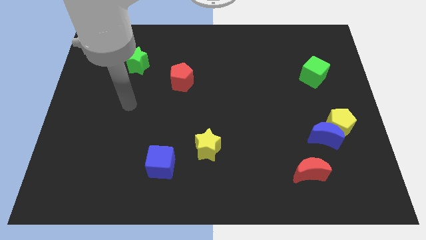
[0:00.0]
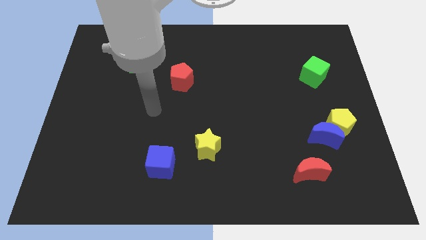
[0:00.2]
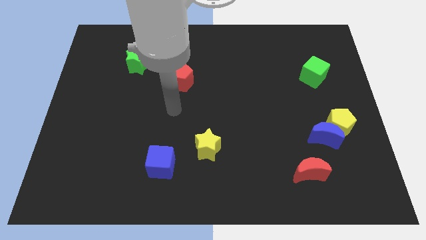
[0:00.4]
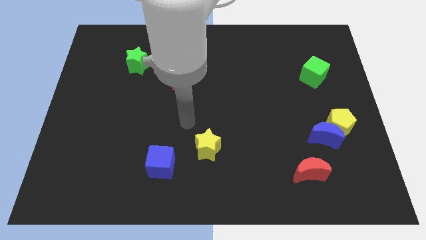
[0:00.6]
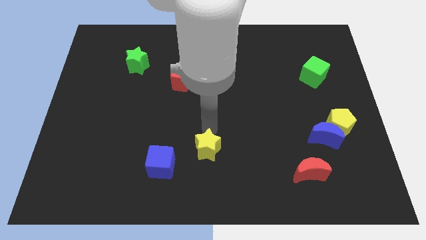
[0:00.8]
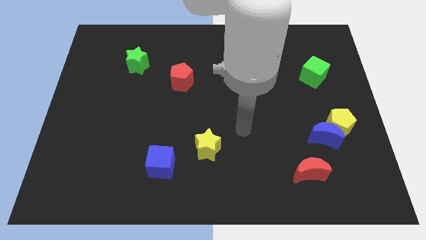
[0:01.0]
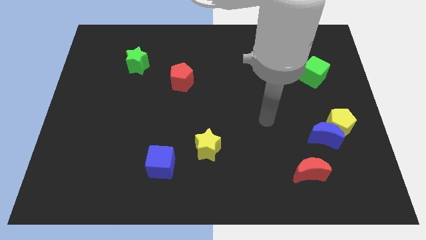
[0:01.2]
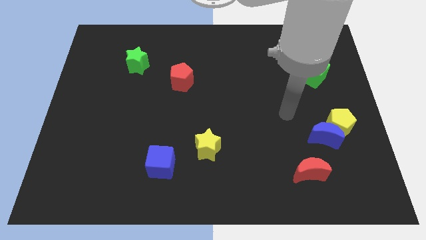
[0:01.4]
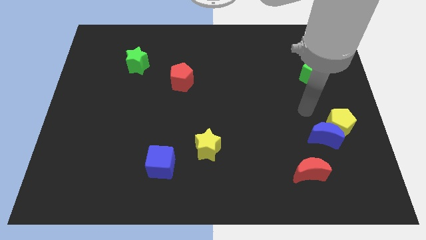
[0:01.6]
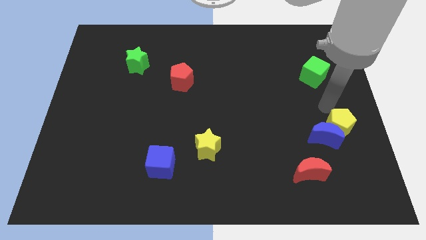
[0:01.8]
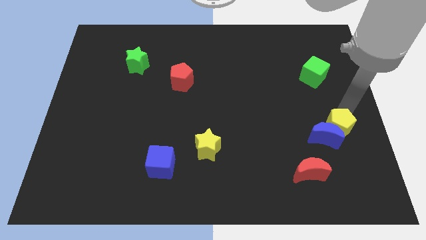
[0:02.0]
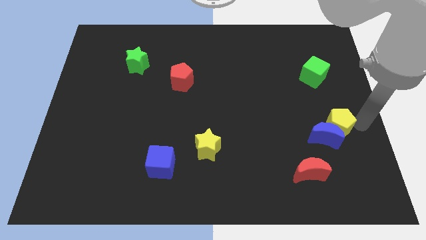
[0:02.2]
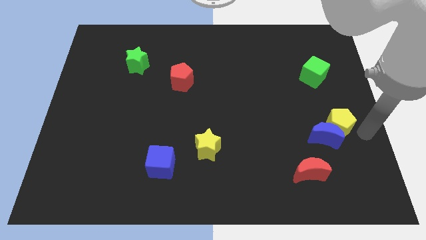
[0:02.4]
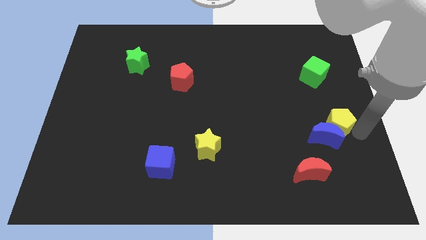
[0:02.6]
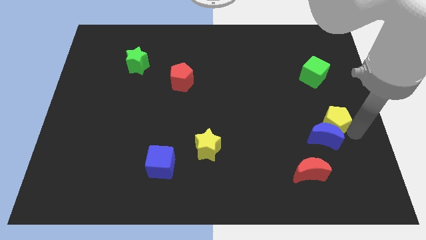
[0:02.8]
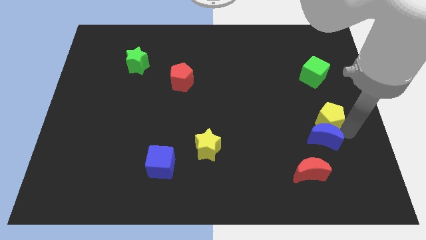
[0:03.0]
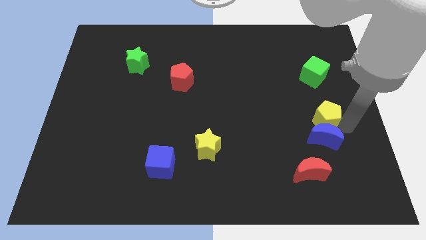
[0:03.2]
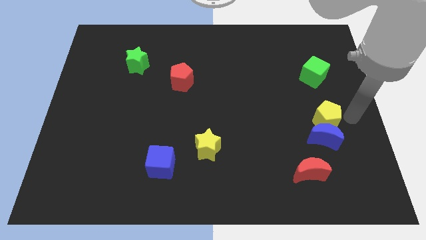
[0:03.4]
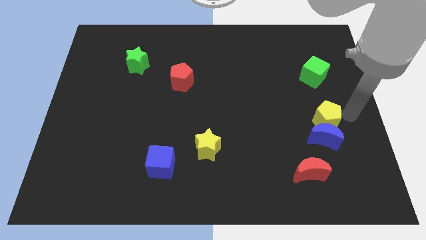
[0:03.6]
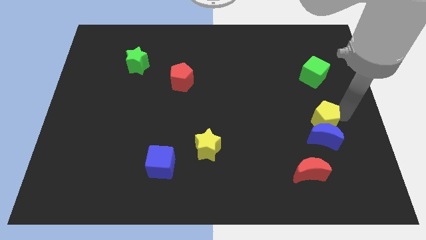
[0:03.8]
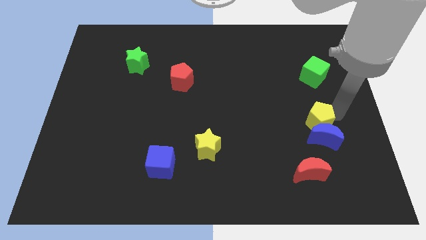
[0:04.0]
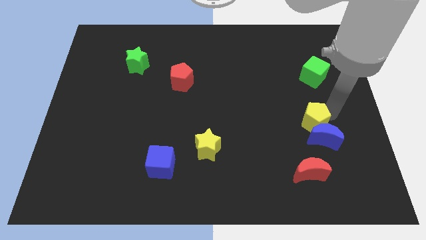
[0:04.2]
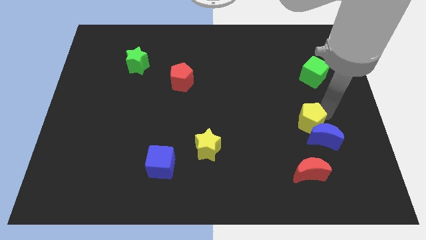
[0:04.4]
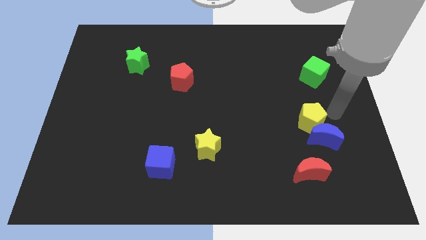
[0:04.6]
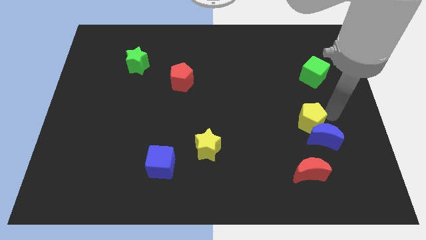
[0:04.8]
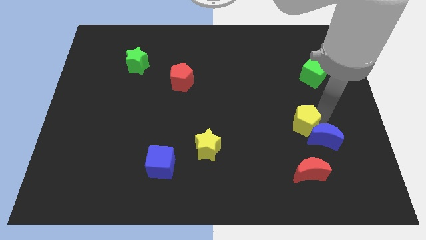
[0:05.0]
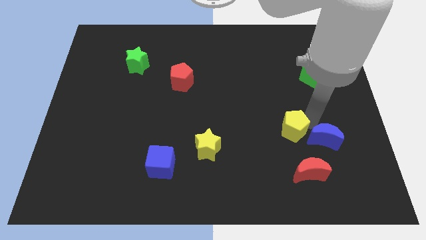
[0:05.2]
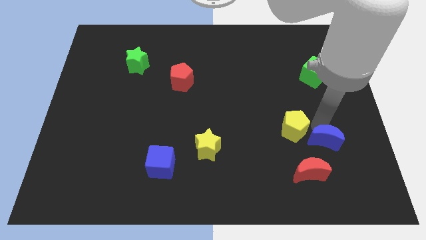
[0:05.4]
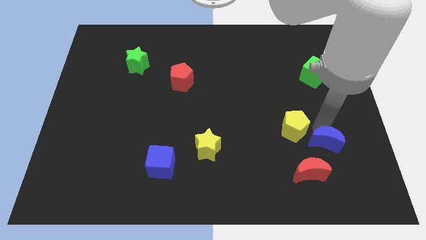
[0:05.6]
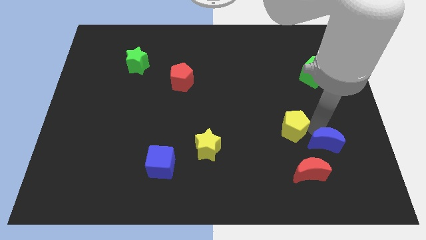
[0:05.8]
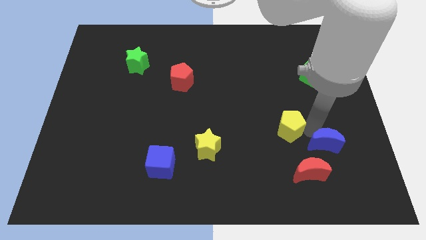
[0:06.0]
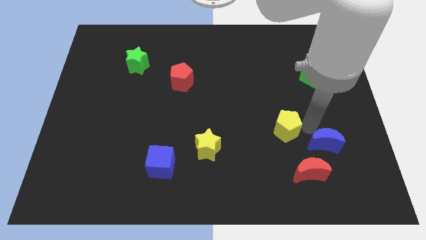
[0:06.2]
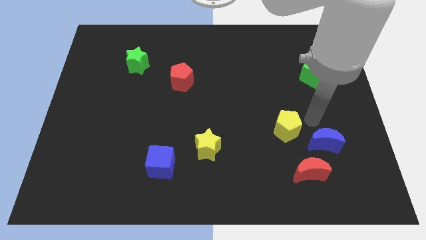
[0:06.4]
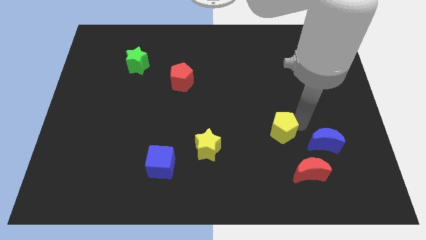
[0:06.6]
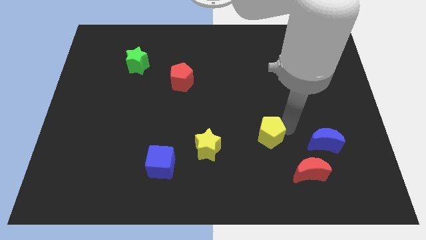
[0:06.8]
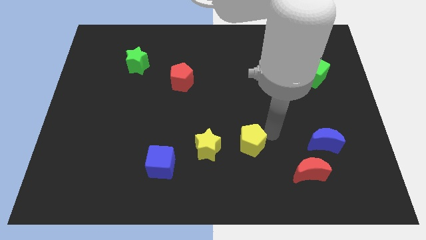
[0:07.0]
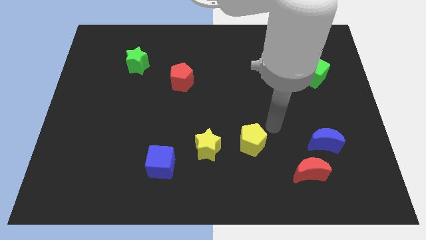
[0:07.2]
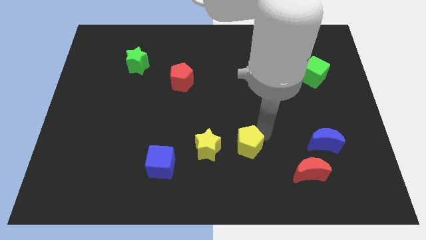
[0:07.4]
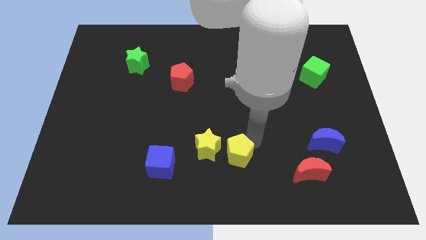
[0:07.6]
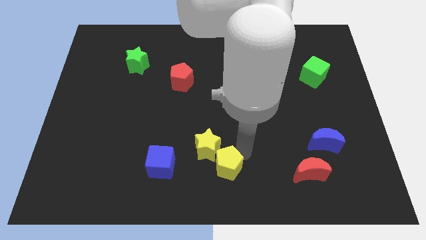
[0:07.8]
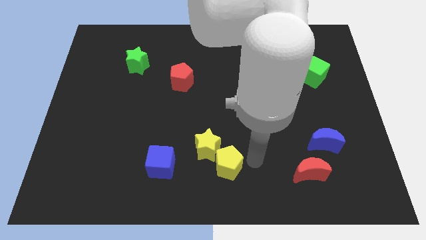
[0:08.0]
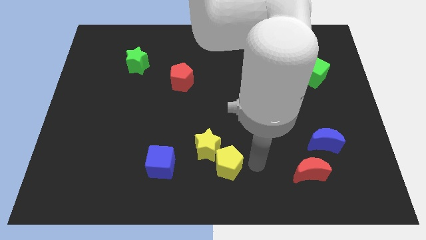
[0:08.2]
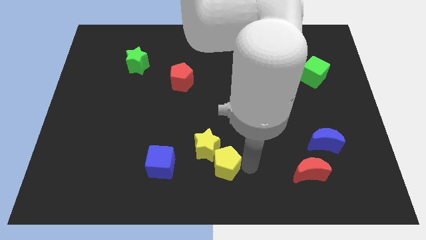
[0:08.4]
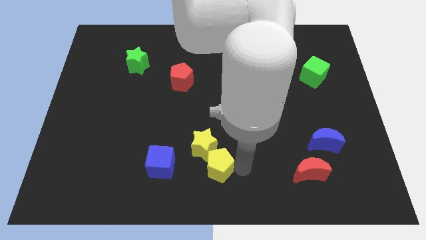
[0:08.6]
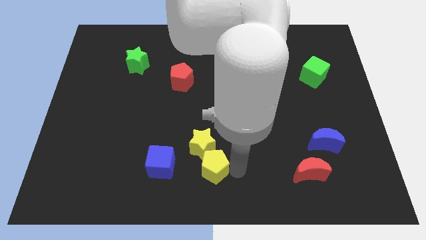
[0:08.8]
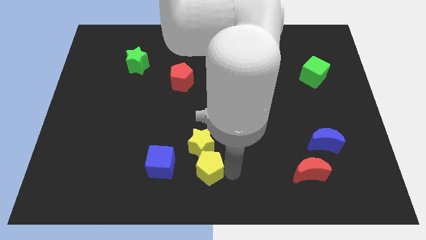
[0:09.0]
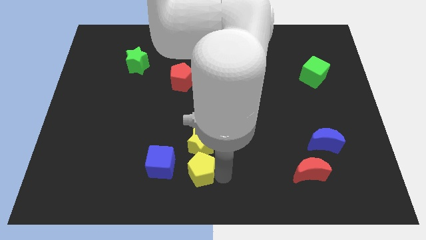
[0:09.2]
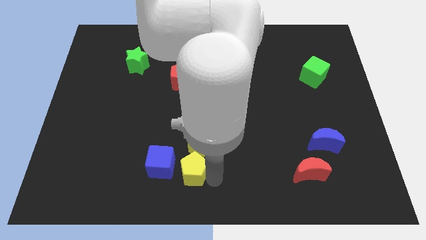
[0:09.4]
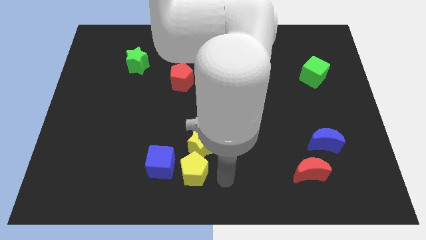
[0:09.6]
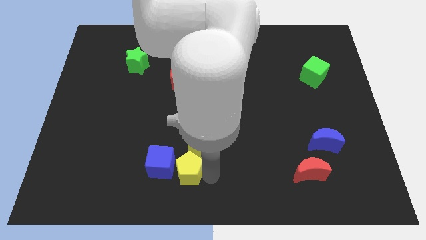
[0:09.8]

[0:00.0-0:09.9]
slide the yellow pentagon close to the blue cube

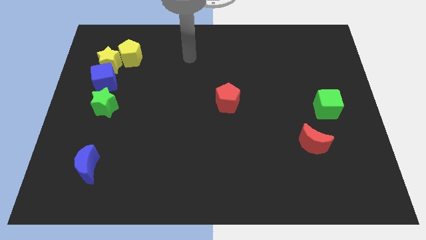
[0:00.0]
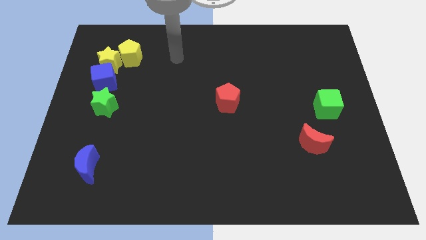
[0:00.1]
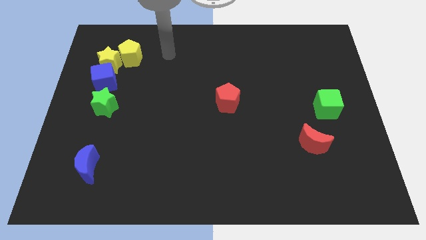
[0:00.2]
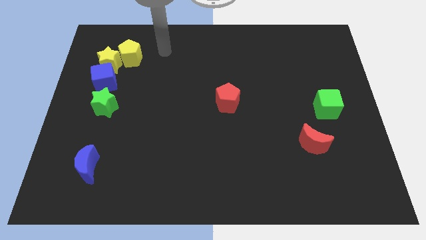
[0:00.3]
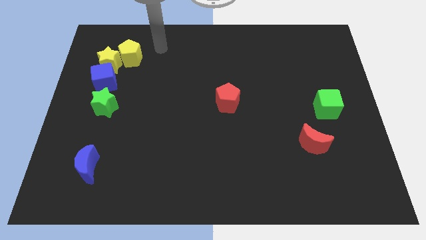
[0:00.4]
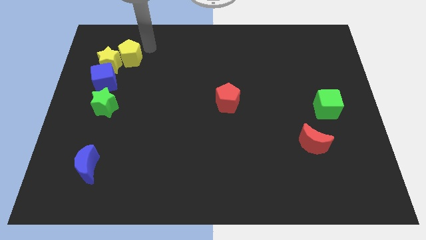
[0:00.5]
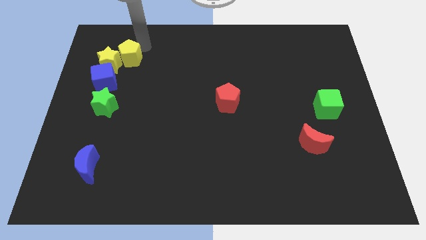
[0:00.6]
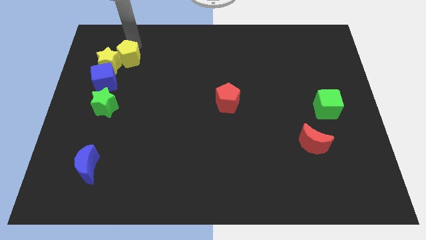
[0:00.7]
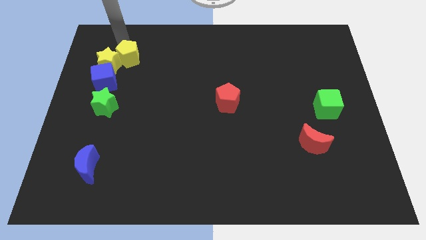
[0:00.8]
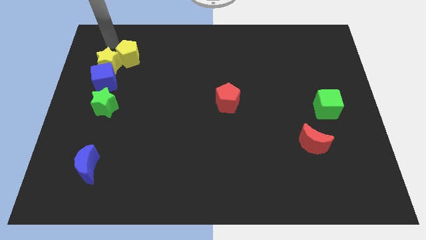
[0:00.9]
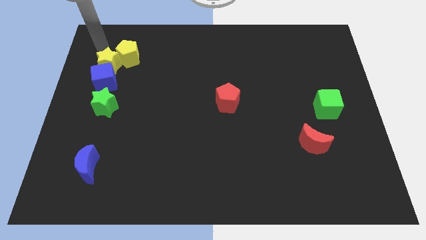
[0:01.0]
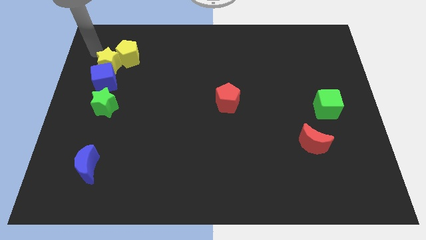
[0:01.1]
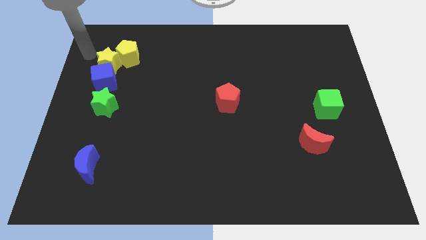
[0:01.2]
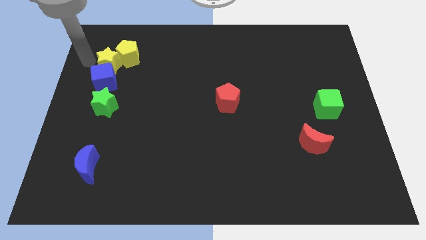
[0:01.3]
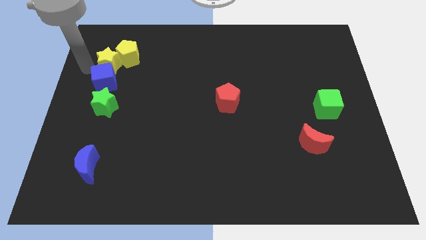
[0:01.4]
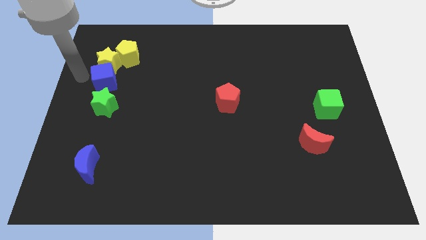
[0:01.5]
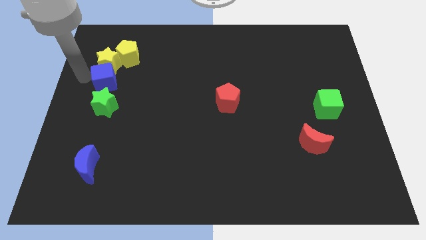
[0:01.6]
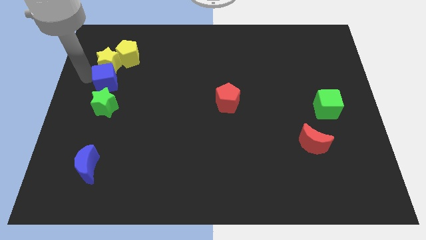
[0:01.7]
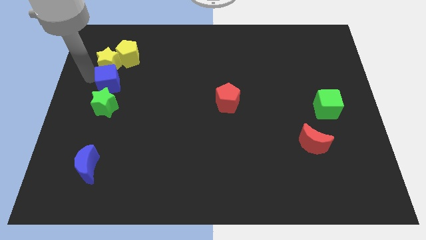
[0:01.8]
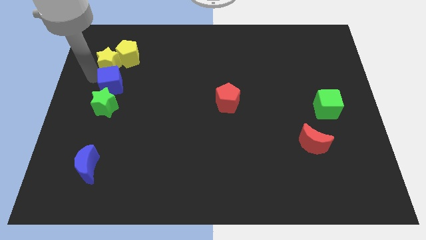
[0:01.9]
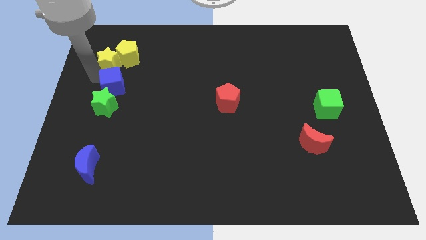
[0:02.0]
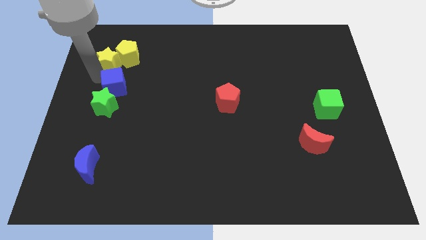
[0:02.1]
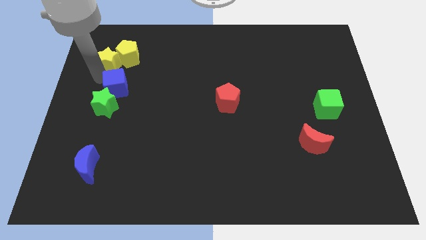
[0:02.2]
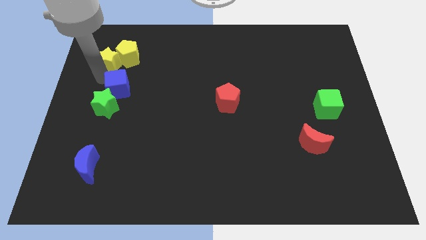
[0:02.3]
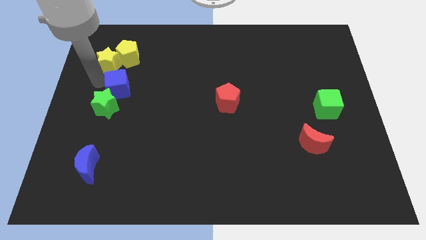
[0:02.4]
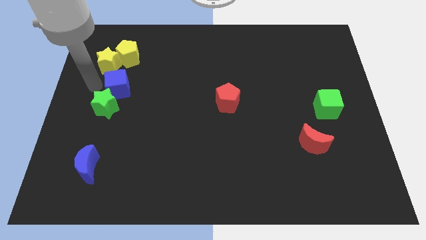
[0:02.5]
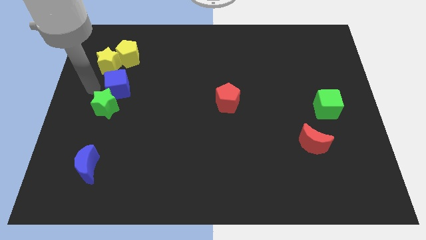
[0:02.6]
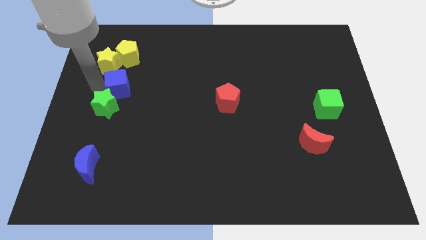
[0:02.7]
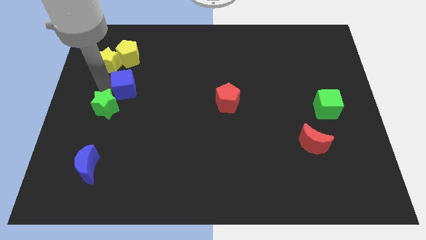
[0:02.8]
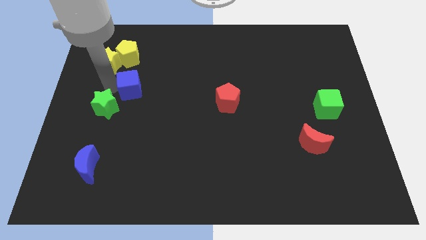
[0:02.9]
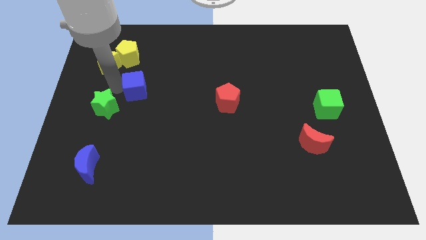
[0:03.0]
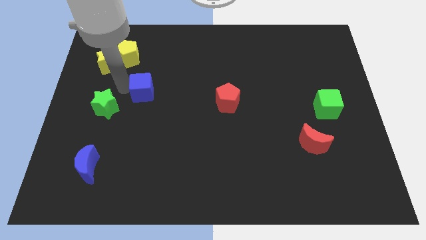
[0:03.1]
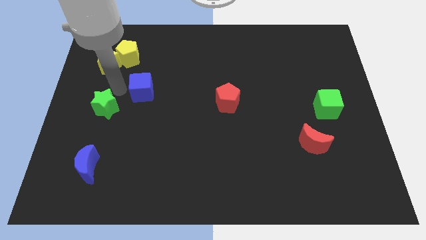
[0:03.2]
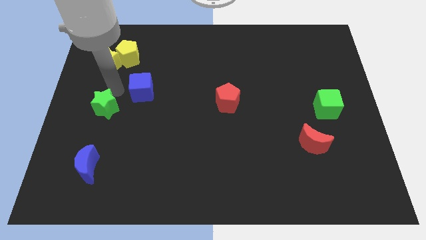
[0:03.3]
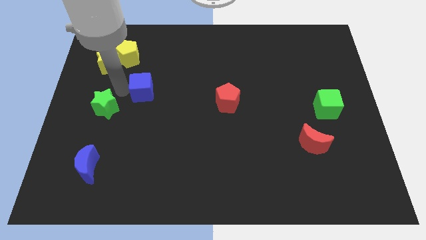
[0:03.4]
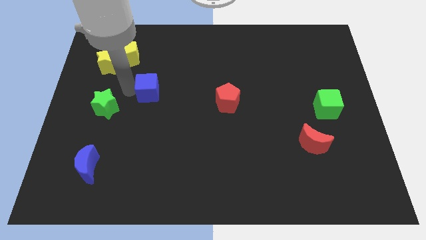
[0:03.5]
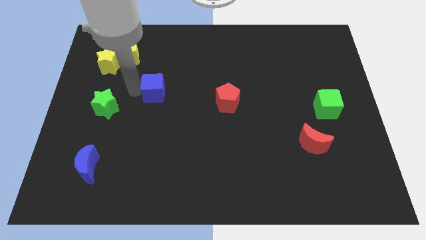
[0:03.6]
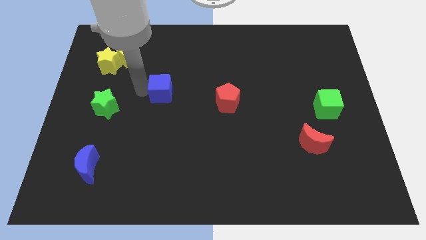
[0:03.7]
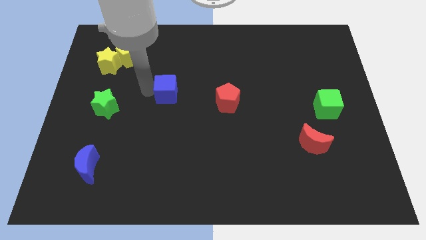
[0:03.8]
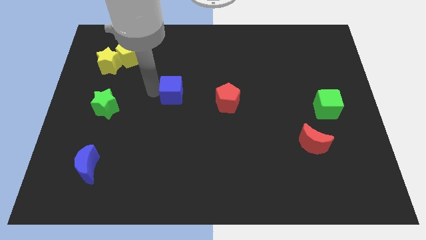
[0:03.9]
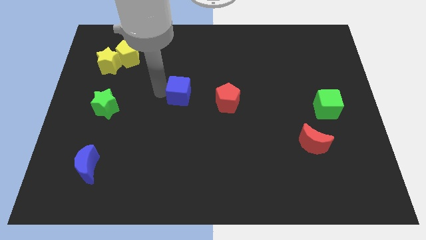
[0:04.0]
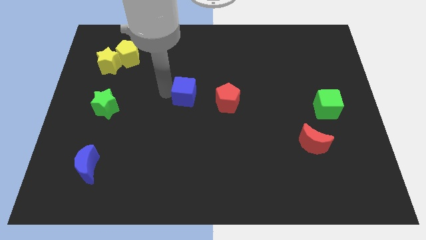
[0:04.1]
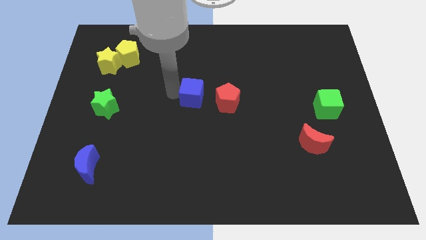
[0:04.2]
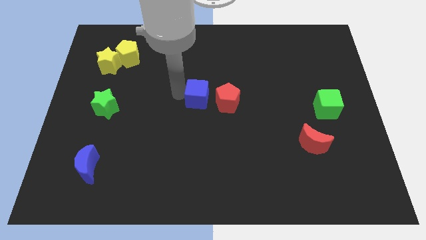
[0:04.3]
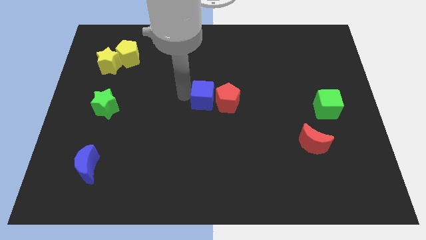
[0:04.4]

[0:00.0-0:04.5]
move the blue cube close to the red pentagon
